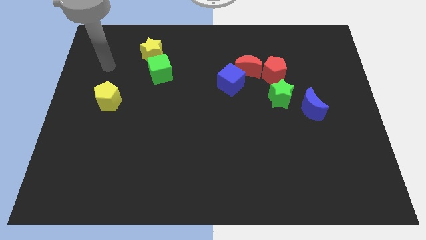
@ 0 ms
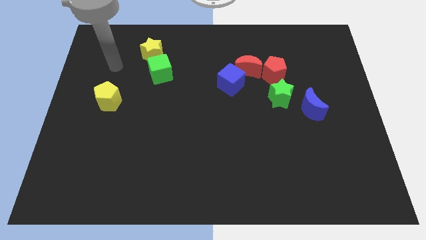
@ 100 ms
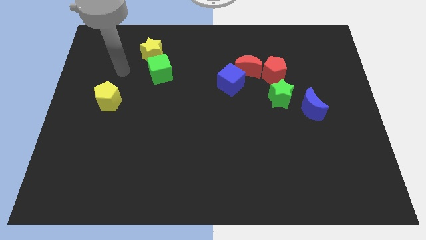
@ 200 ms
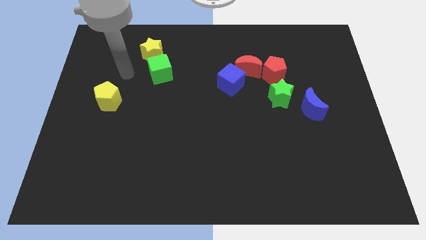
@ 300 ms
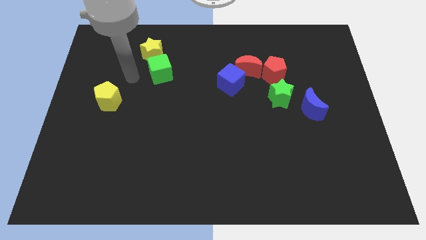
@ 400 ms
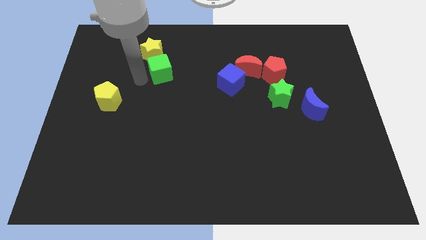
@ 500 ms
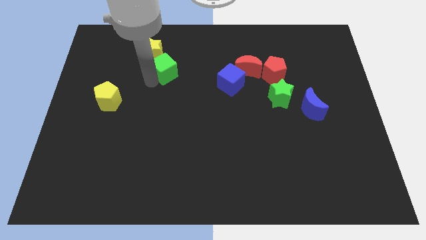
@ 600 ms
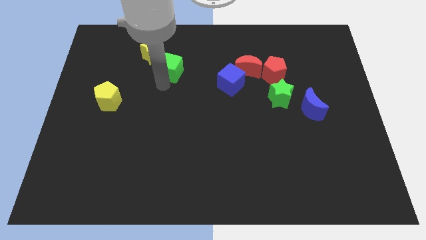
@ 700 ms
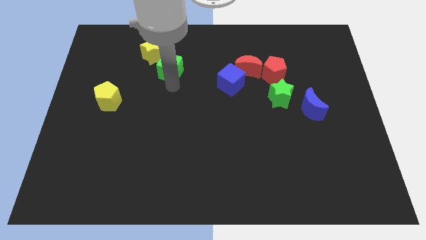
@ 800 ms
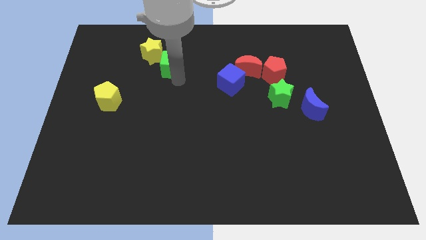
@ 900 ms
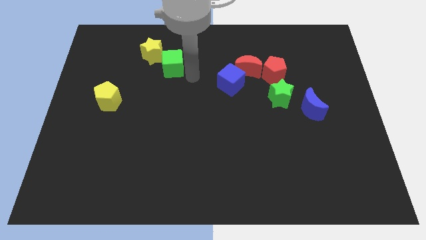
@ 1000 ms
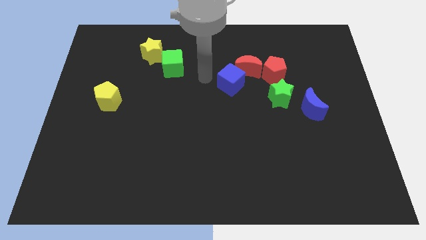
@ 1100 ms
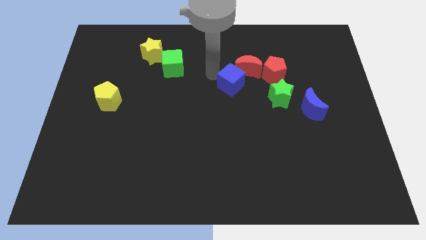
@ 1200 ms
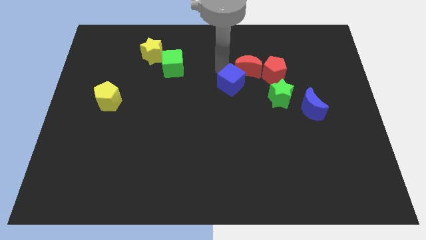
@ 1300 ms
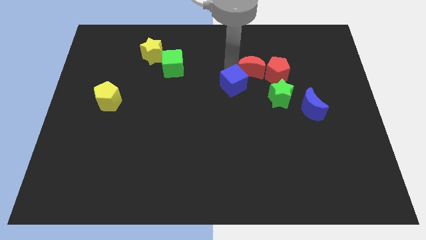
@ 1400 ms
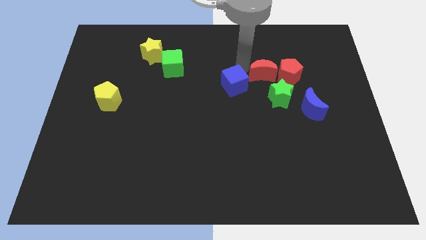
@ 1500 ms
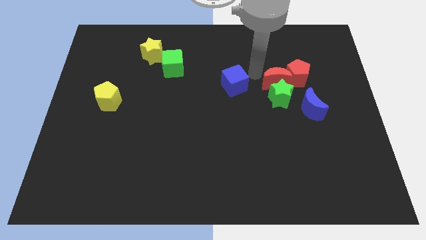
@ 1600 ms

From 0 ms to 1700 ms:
move the blue cube away from the red moon

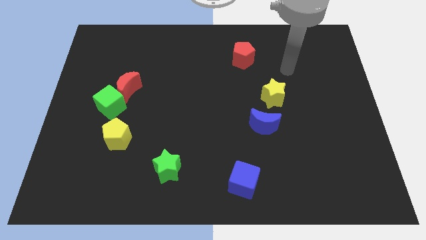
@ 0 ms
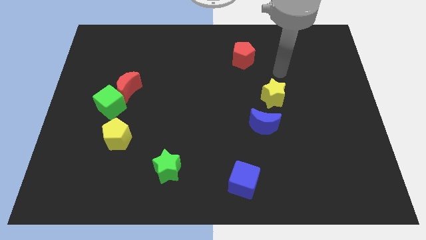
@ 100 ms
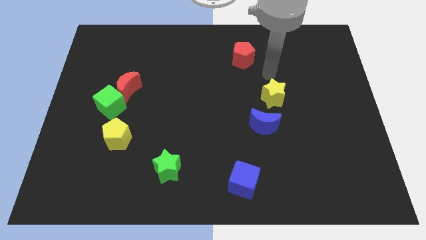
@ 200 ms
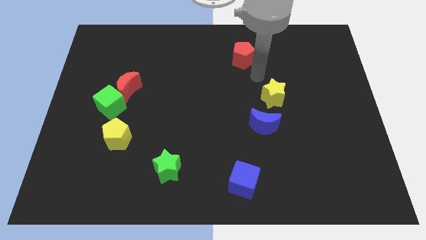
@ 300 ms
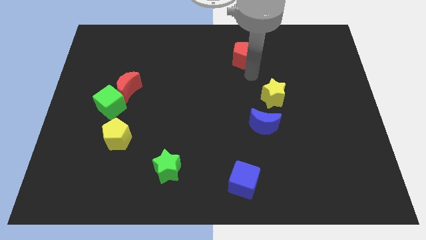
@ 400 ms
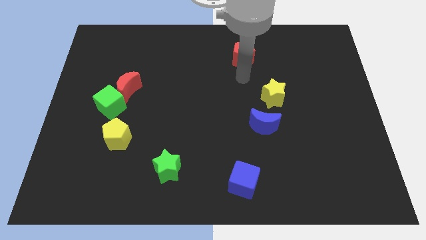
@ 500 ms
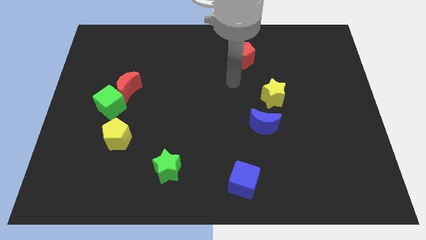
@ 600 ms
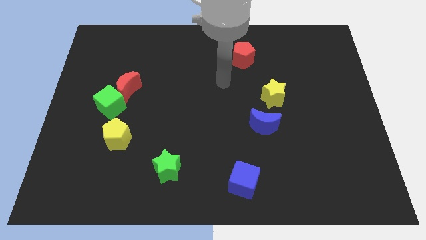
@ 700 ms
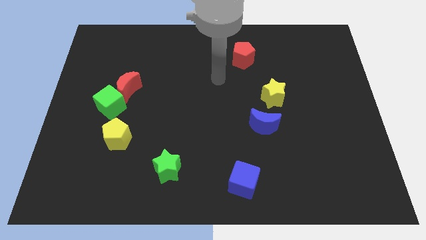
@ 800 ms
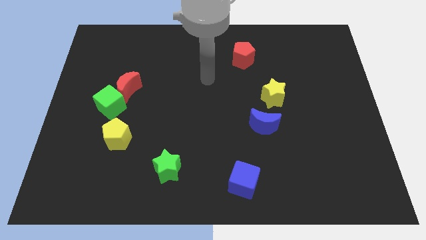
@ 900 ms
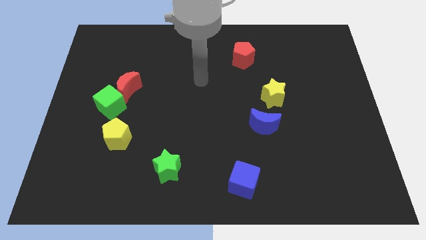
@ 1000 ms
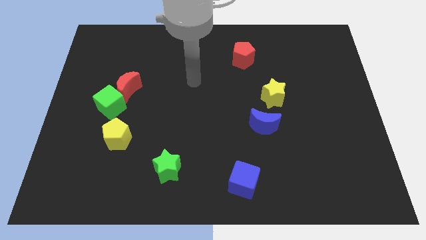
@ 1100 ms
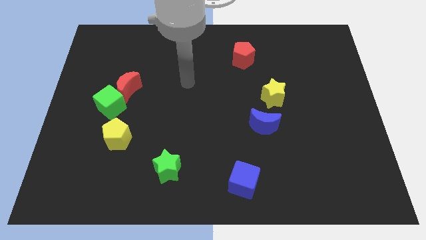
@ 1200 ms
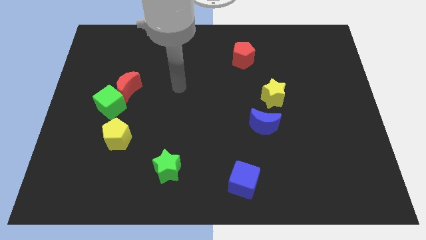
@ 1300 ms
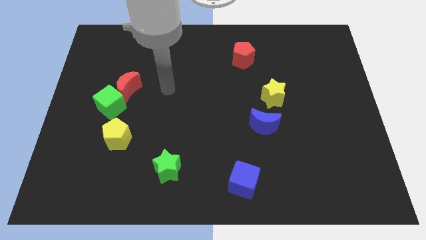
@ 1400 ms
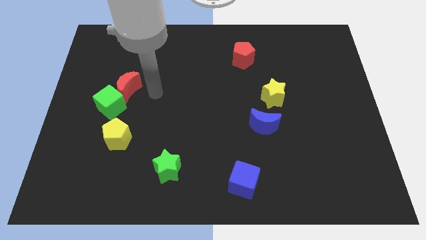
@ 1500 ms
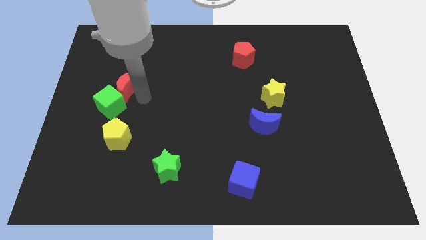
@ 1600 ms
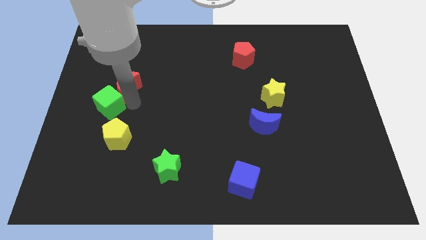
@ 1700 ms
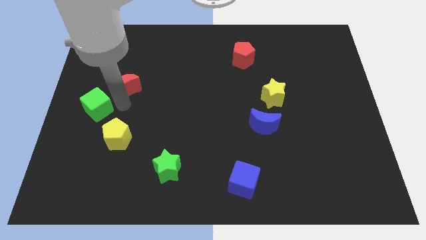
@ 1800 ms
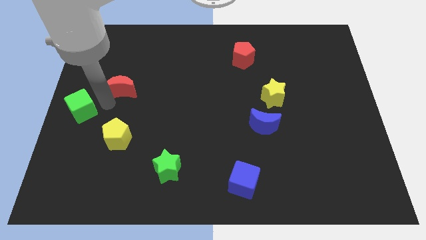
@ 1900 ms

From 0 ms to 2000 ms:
pull the red moon apart from the green cube

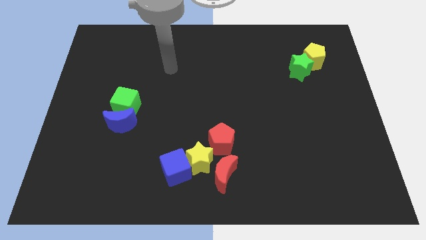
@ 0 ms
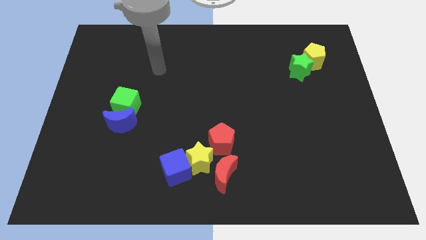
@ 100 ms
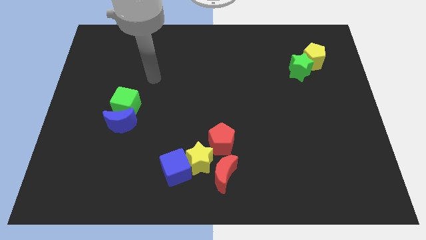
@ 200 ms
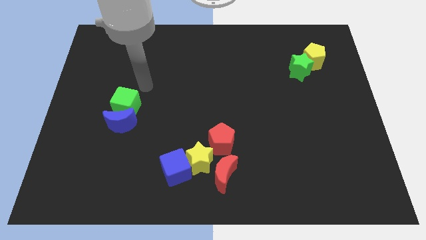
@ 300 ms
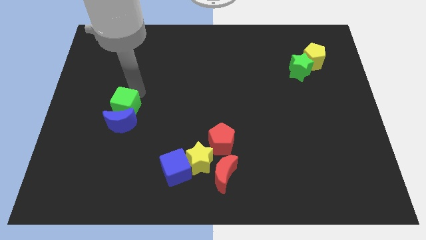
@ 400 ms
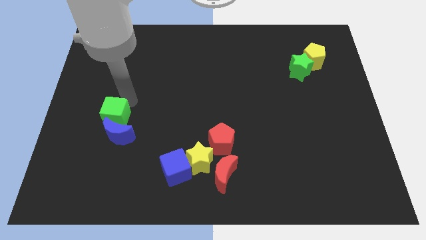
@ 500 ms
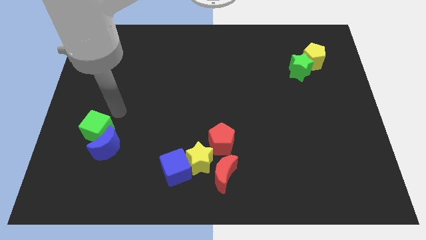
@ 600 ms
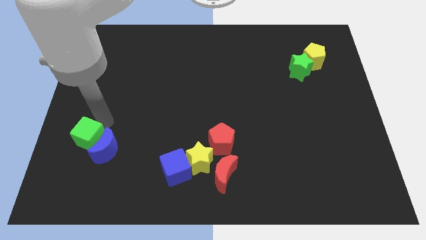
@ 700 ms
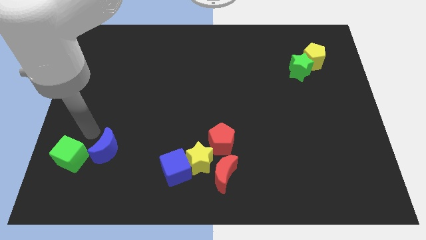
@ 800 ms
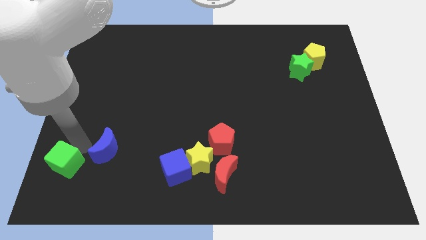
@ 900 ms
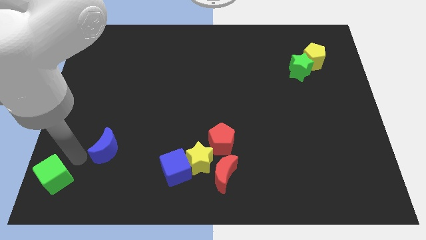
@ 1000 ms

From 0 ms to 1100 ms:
separate the blue moon from the green cube

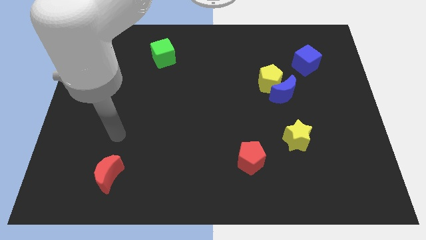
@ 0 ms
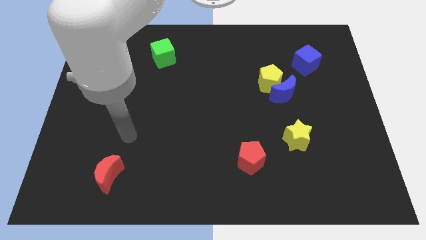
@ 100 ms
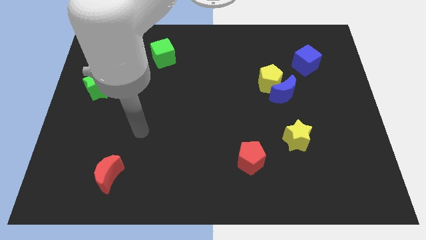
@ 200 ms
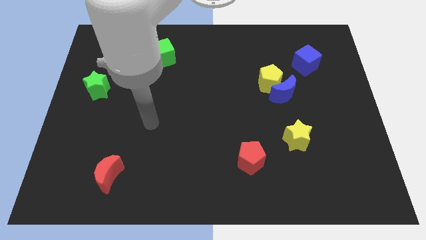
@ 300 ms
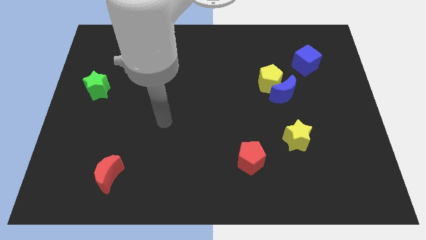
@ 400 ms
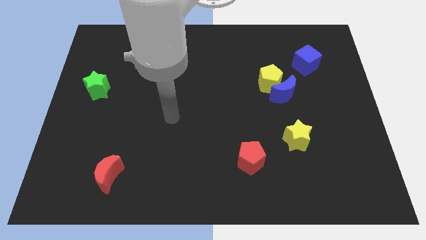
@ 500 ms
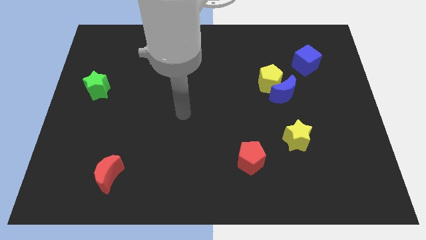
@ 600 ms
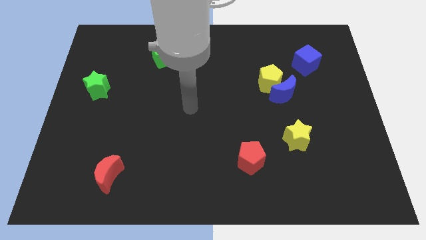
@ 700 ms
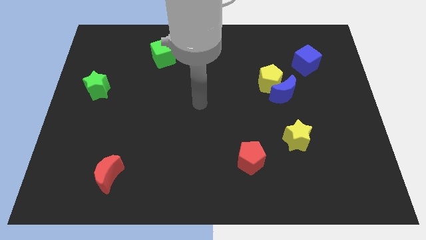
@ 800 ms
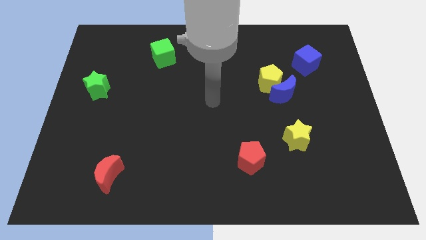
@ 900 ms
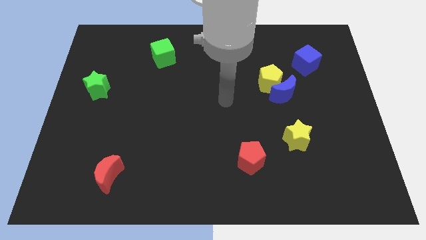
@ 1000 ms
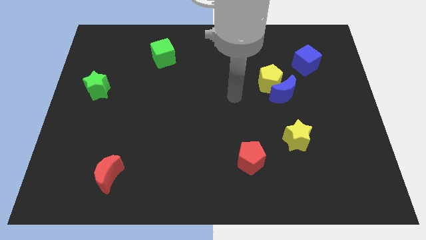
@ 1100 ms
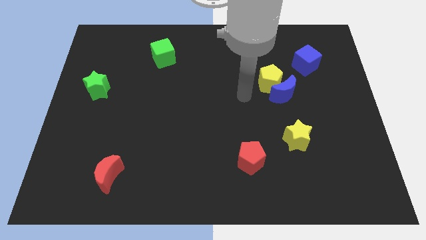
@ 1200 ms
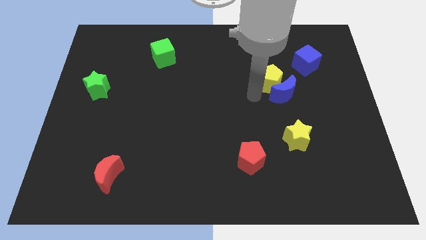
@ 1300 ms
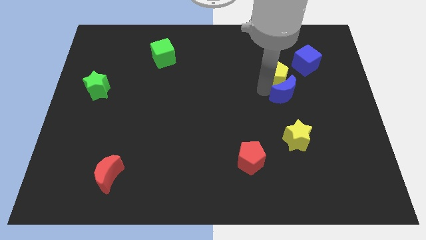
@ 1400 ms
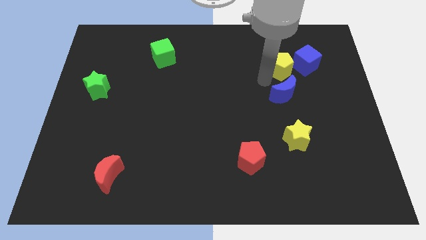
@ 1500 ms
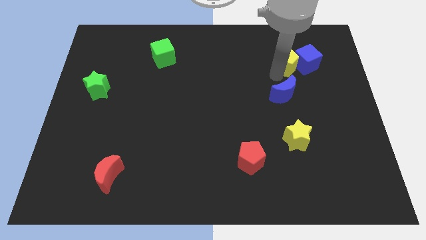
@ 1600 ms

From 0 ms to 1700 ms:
move the blue moon away from the yellow pentagon

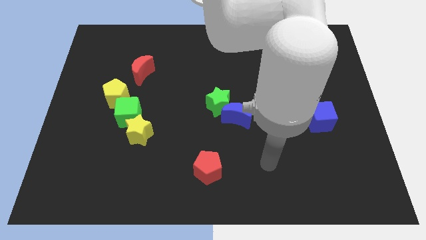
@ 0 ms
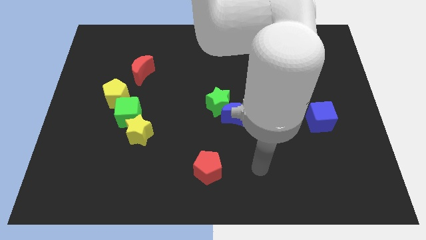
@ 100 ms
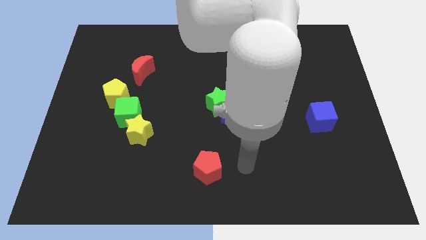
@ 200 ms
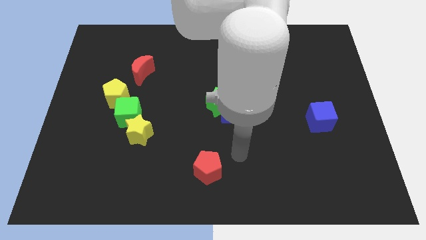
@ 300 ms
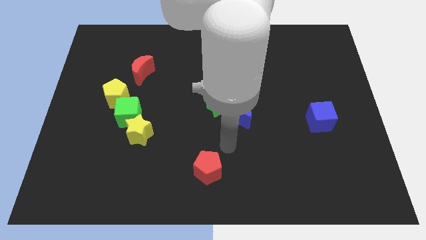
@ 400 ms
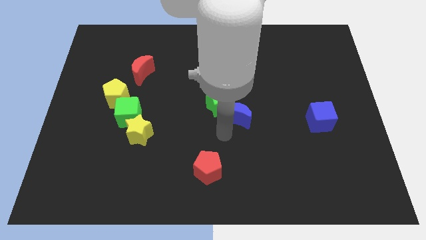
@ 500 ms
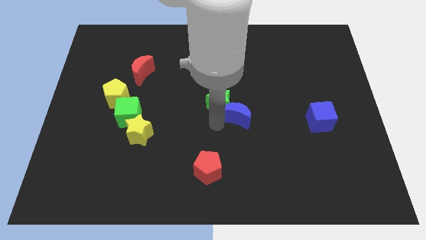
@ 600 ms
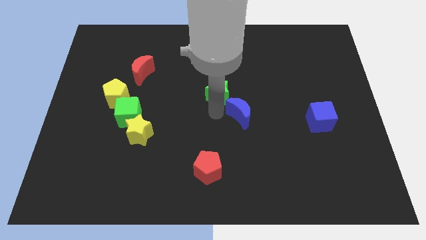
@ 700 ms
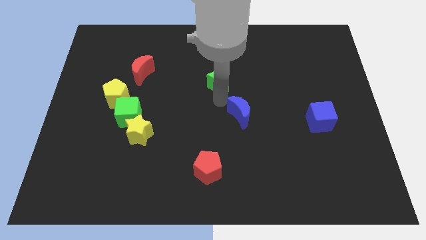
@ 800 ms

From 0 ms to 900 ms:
pull the blue moon apart from the green star

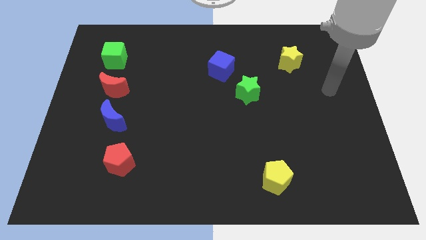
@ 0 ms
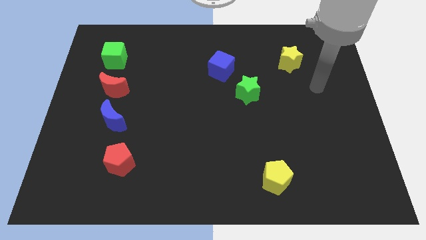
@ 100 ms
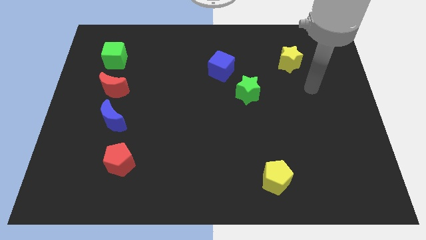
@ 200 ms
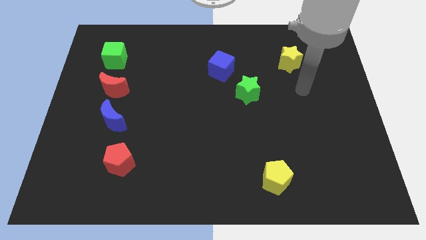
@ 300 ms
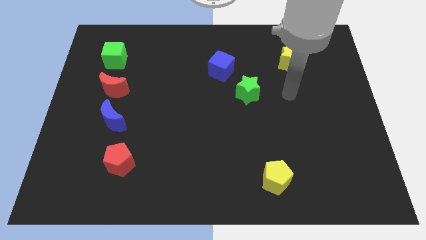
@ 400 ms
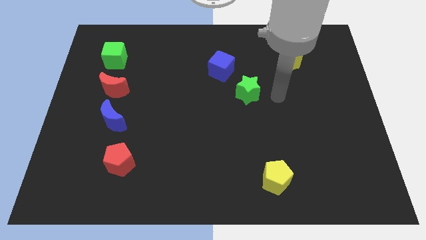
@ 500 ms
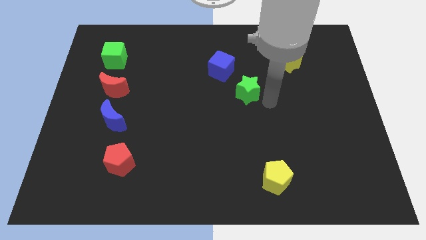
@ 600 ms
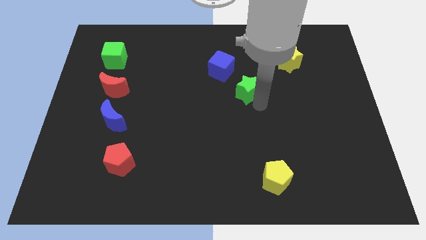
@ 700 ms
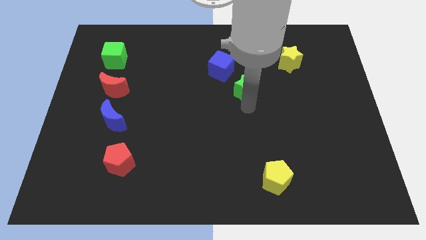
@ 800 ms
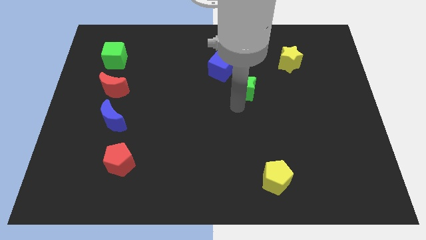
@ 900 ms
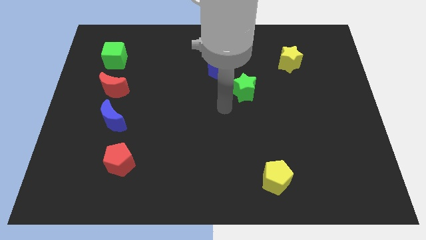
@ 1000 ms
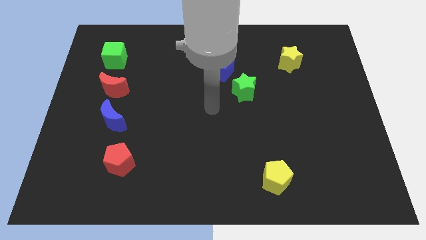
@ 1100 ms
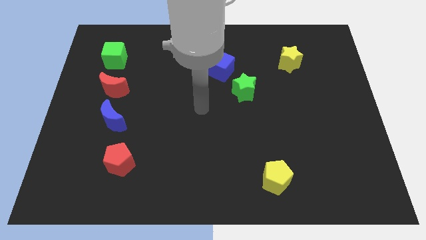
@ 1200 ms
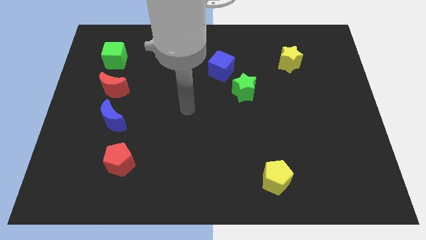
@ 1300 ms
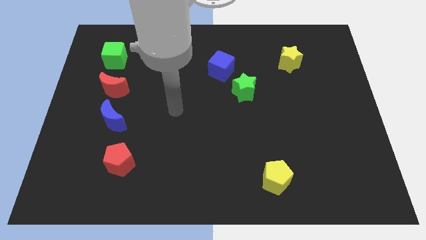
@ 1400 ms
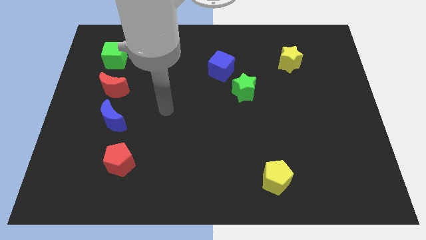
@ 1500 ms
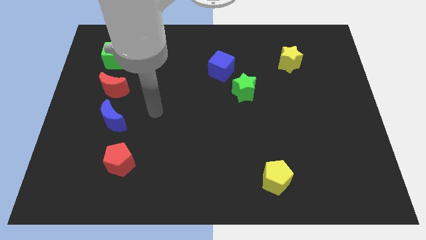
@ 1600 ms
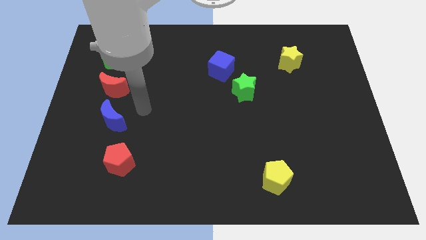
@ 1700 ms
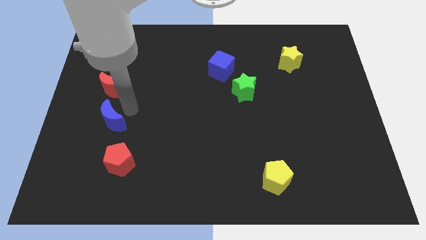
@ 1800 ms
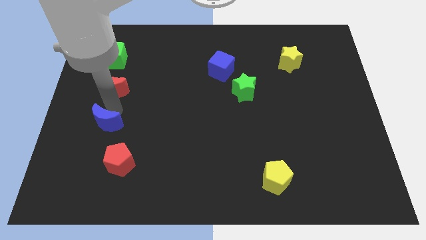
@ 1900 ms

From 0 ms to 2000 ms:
pull the red moon apart from the blue moon
